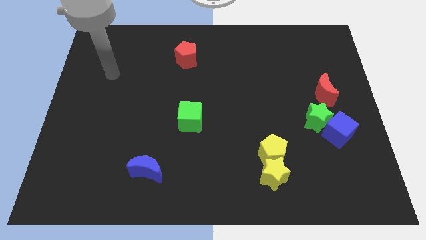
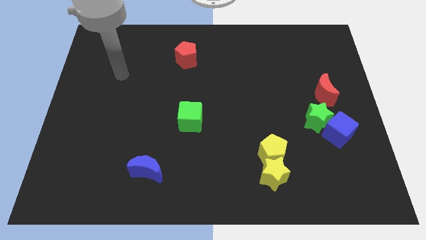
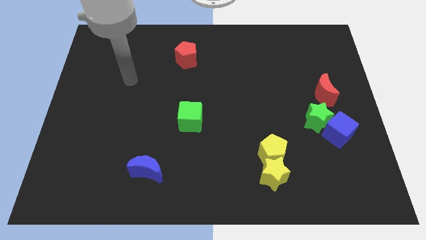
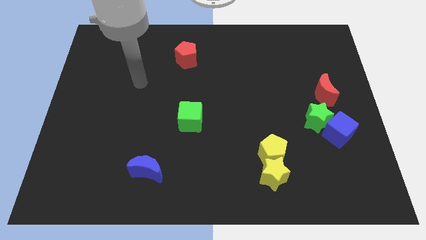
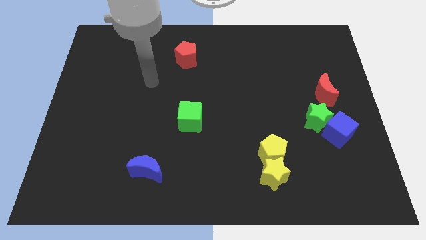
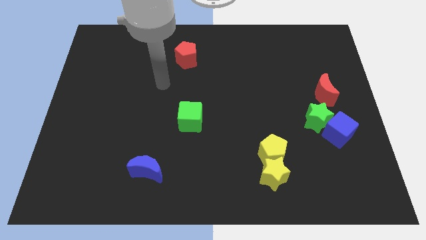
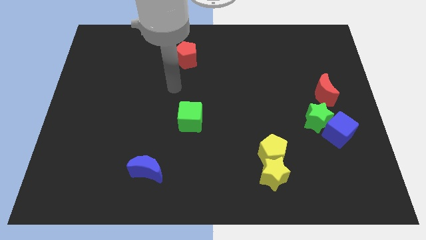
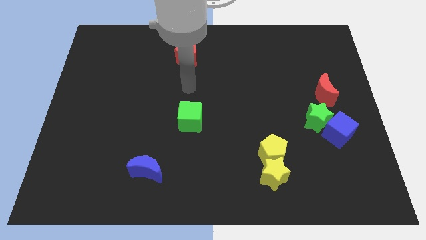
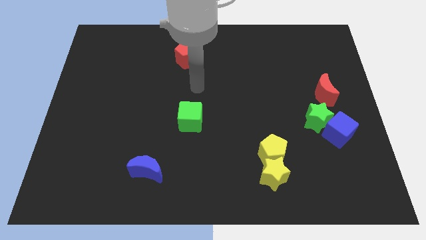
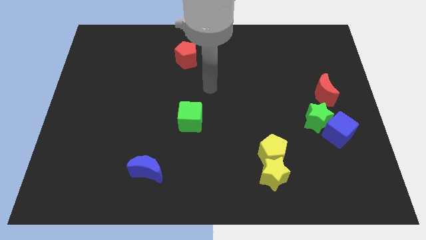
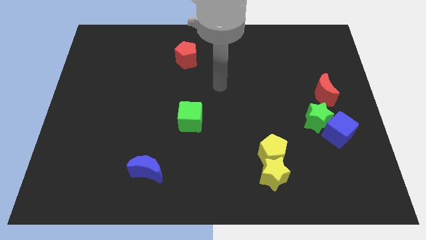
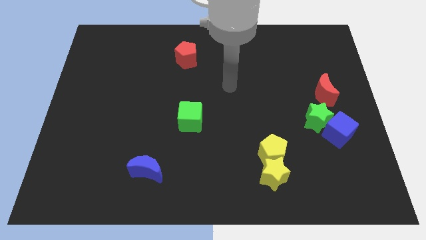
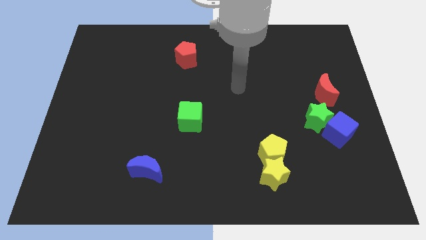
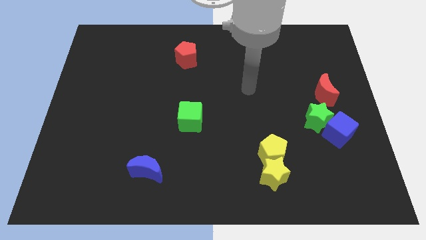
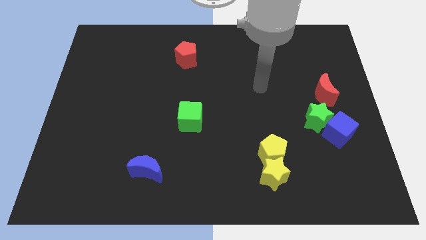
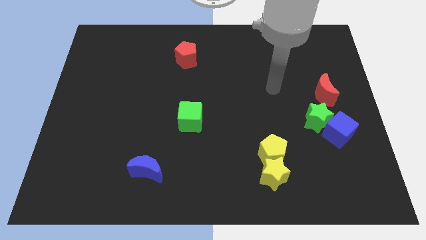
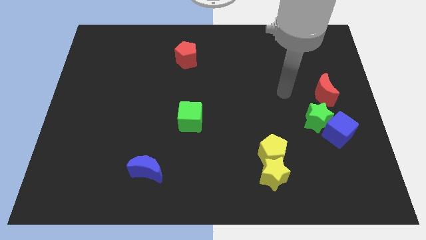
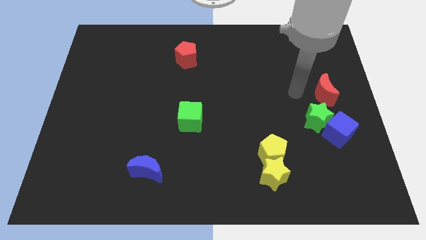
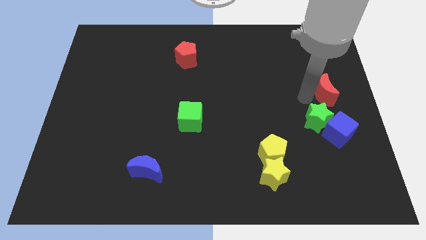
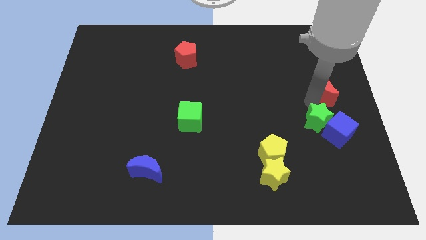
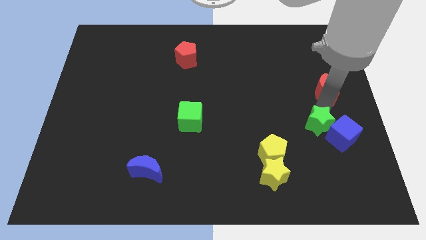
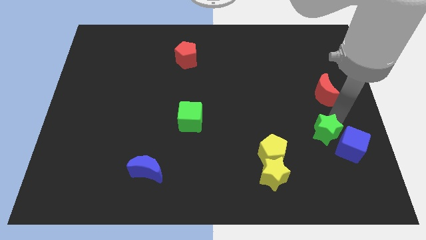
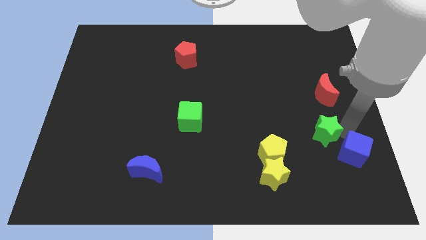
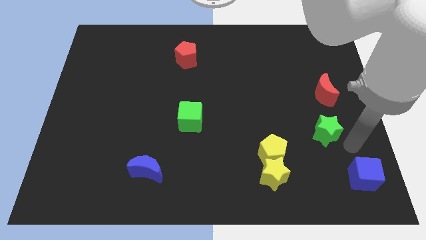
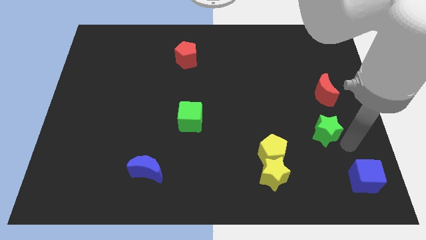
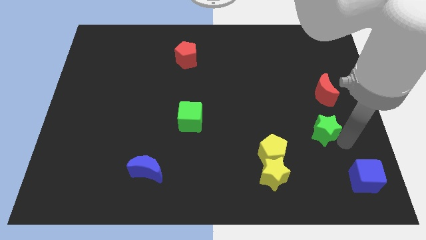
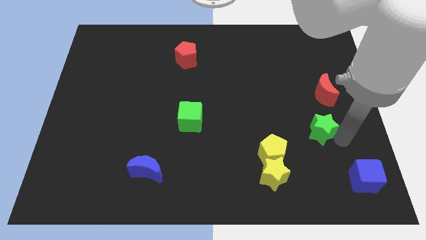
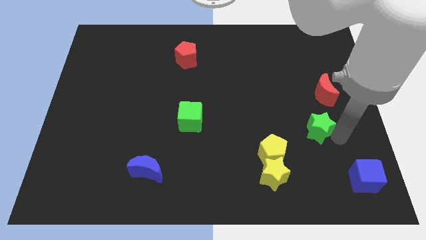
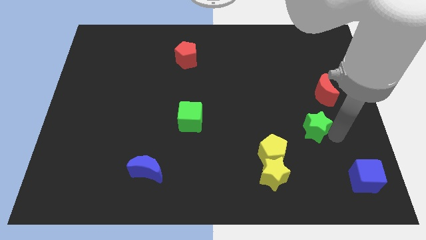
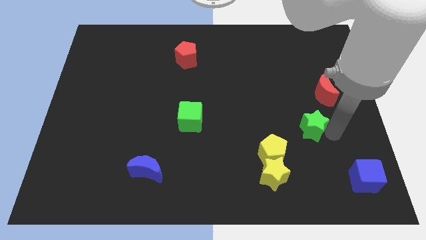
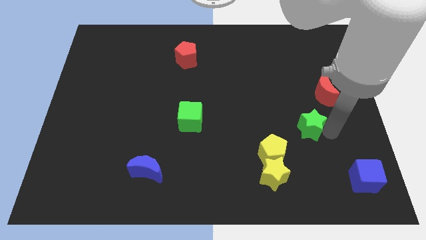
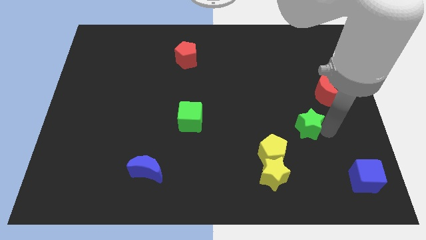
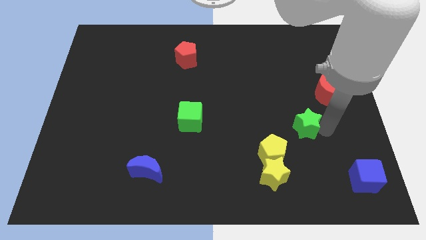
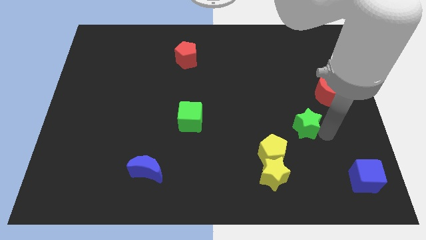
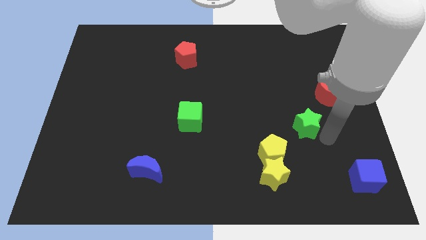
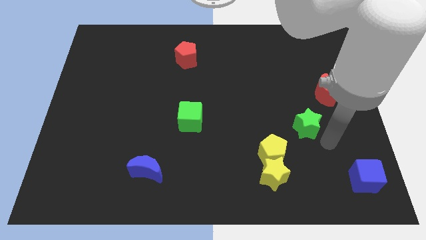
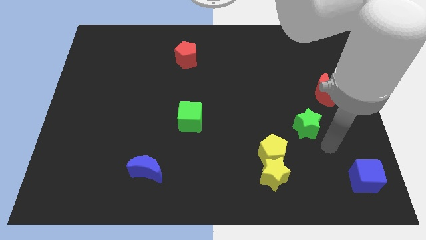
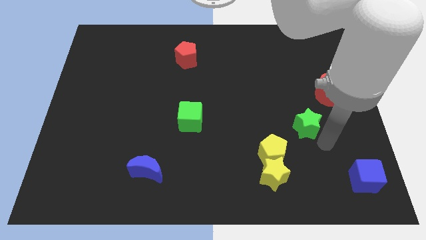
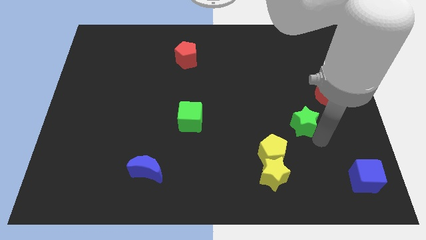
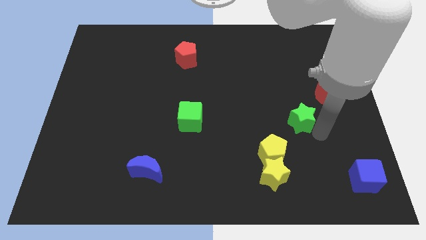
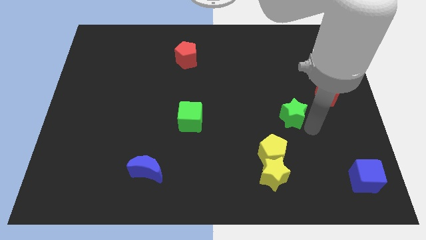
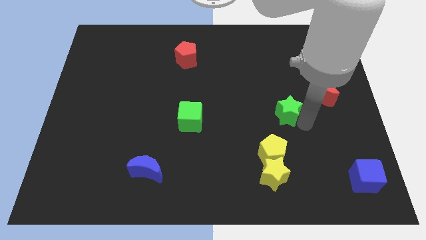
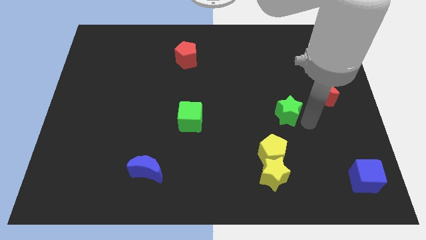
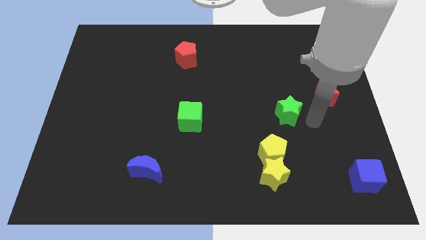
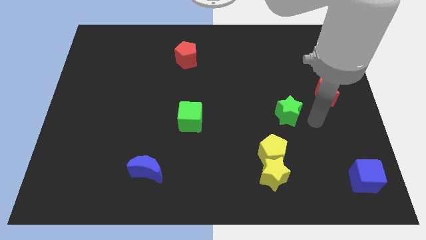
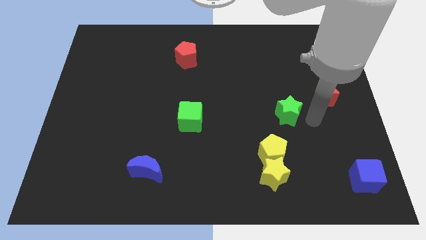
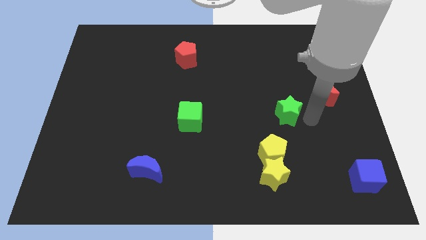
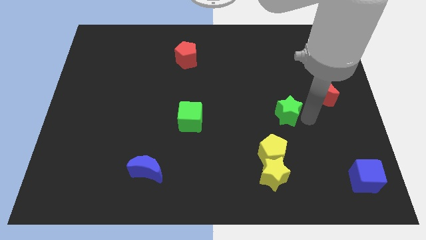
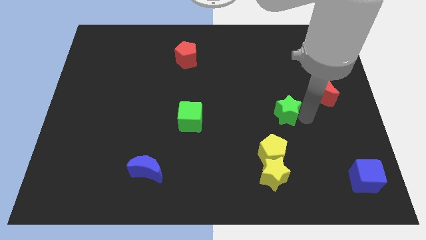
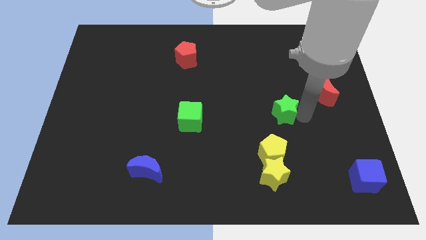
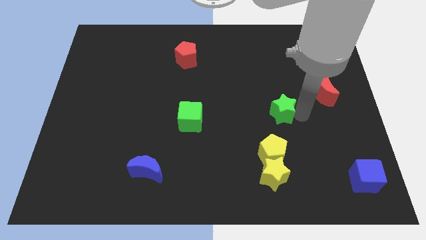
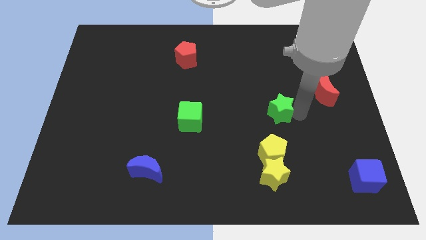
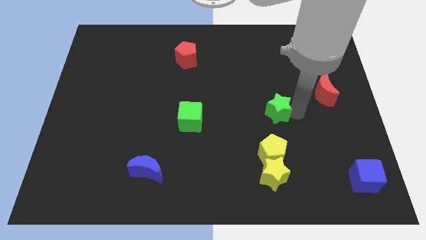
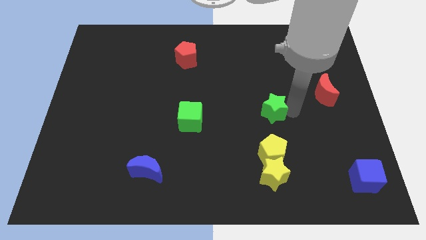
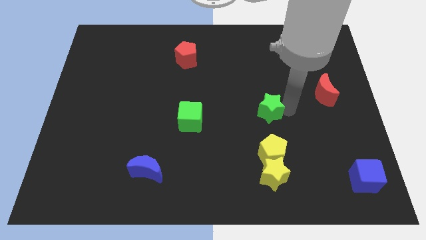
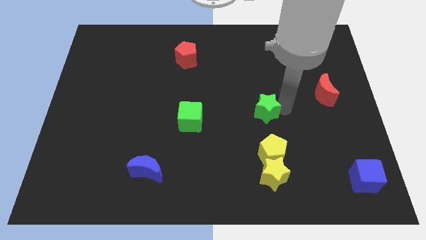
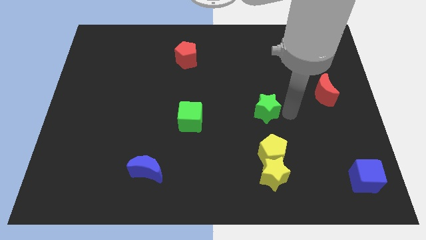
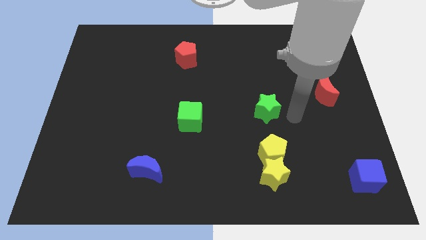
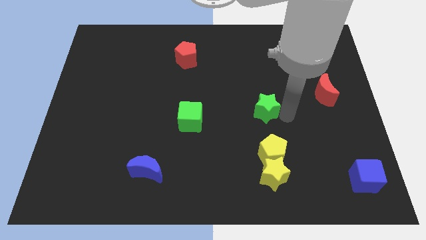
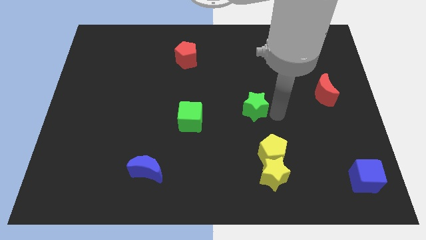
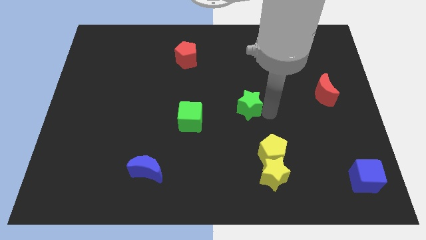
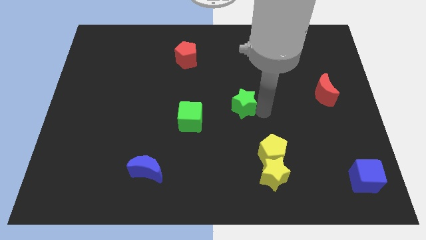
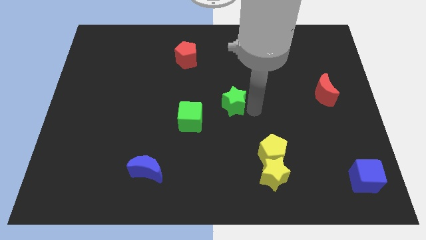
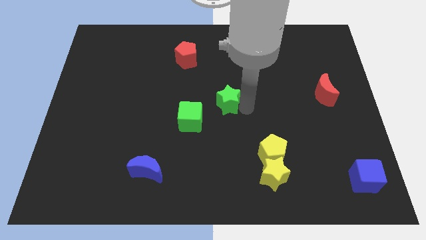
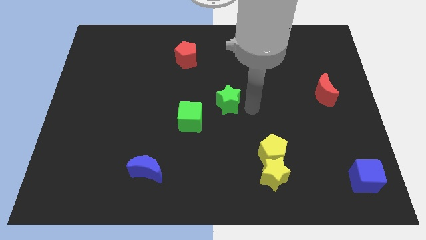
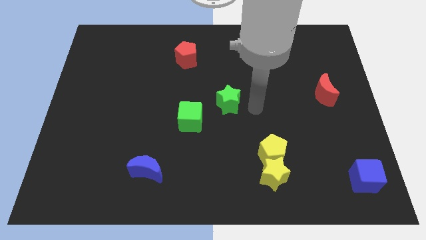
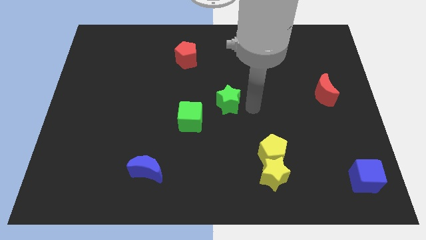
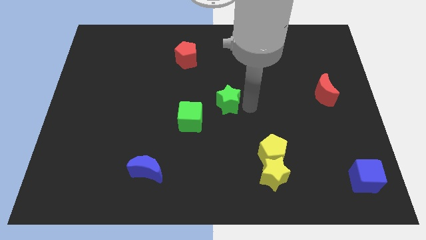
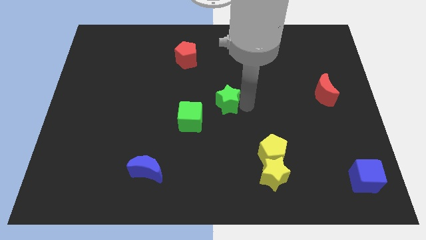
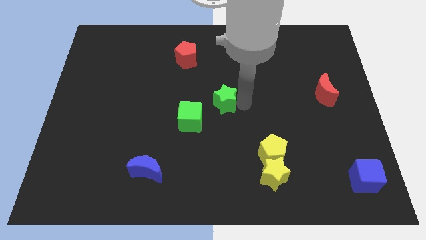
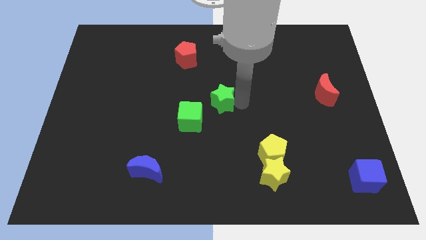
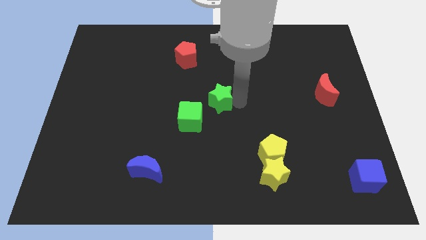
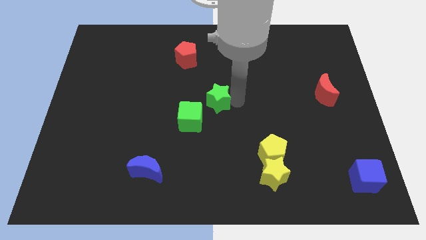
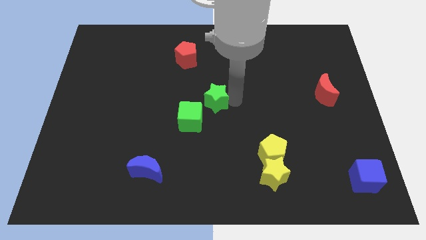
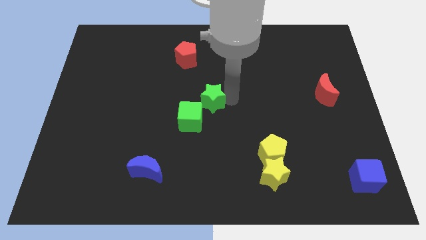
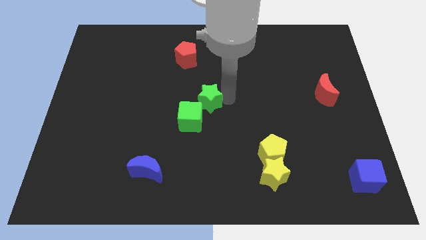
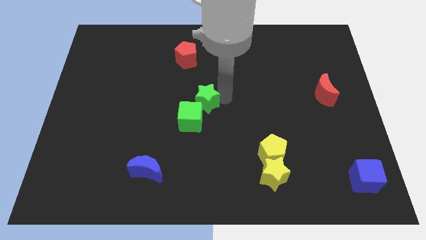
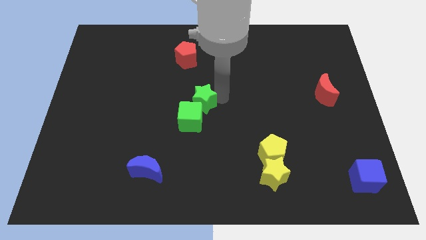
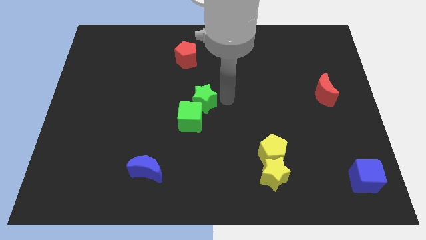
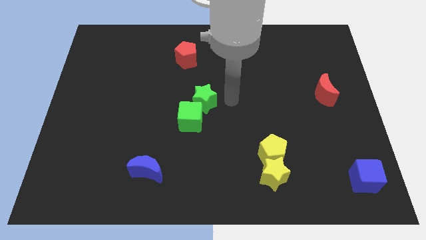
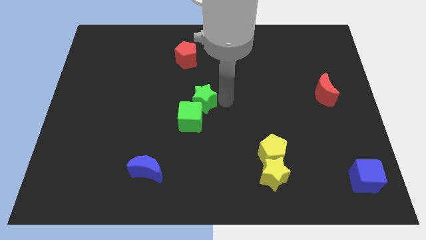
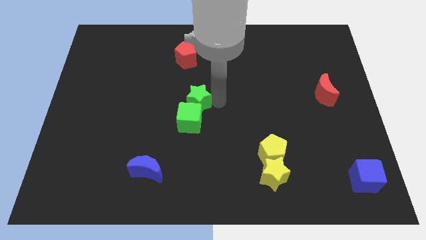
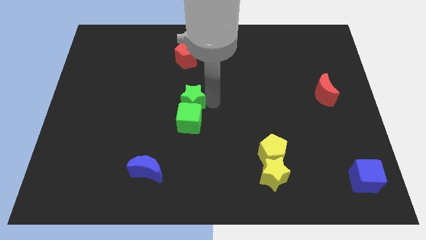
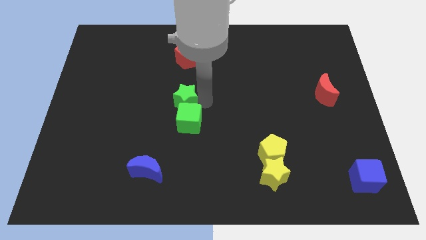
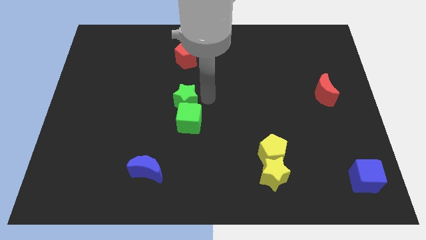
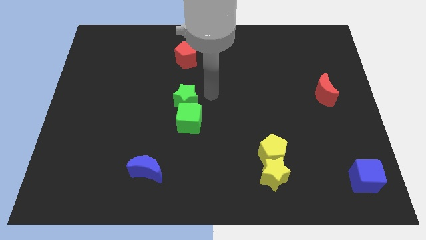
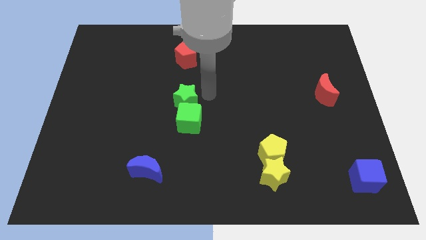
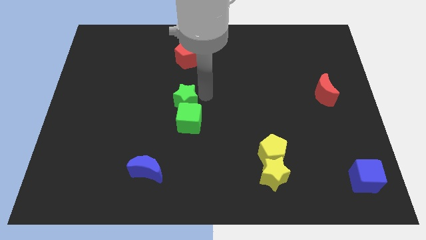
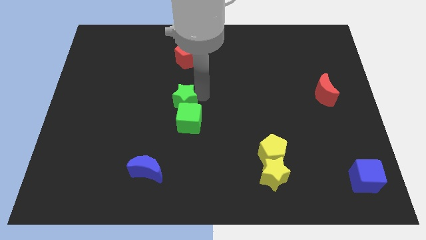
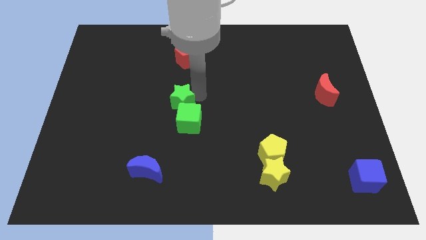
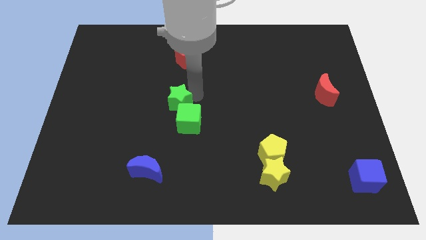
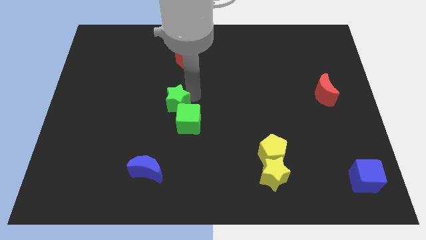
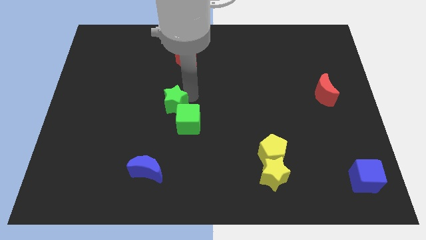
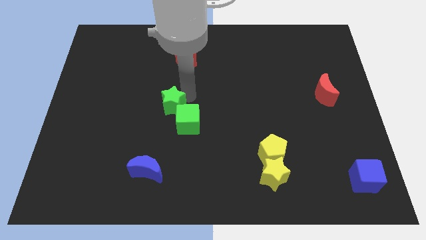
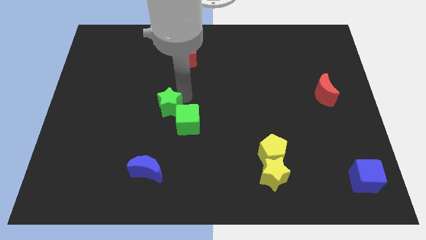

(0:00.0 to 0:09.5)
move the green star to the left of the green cube
